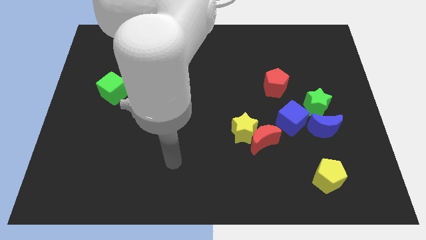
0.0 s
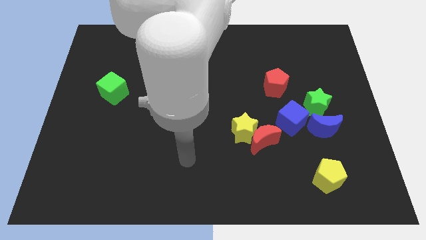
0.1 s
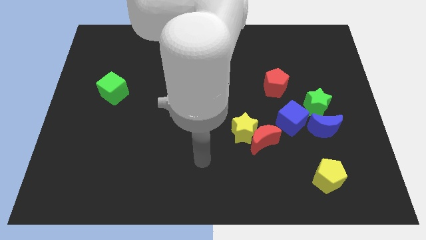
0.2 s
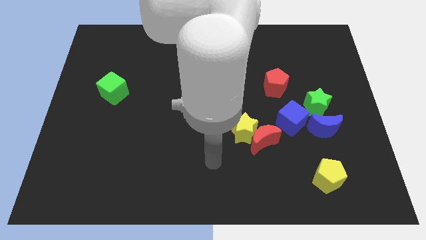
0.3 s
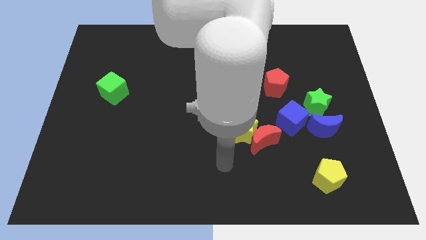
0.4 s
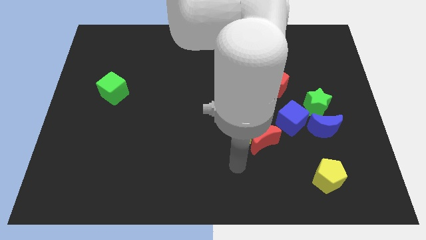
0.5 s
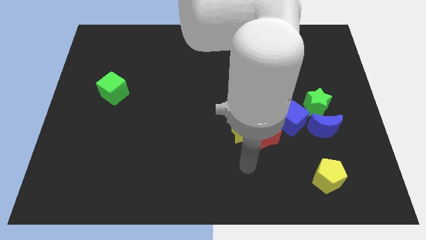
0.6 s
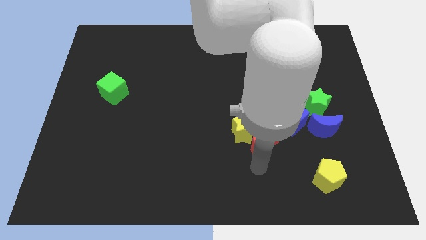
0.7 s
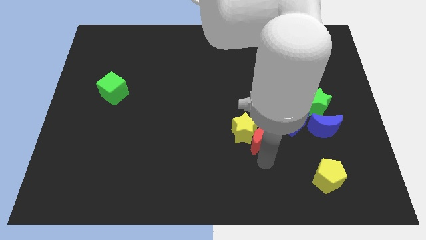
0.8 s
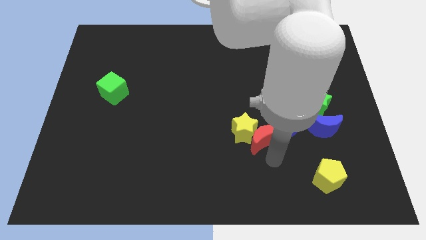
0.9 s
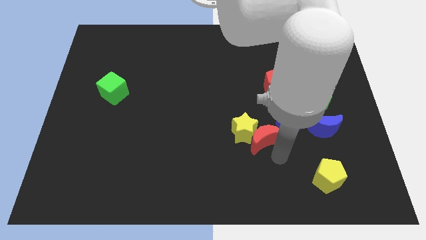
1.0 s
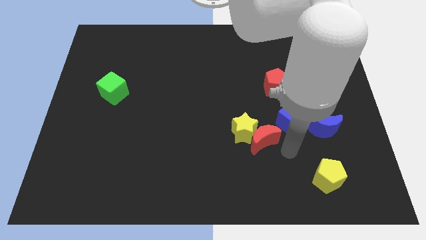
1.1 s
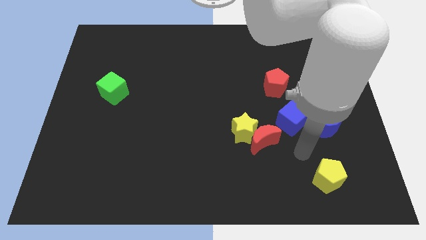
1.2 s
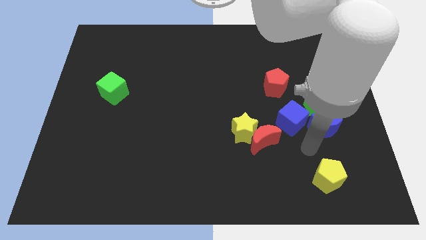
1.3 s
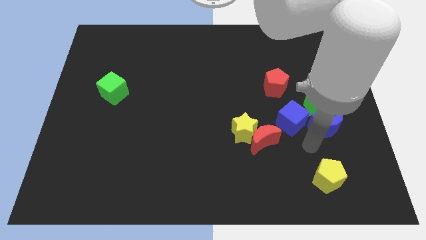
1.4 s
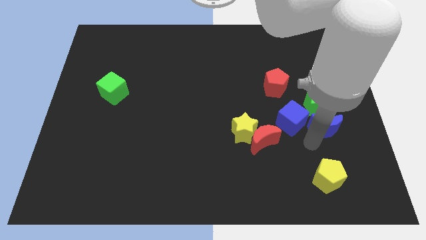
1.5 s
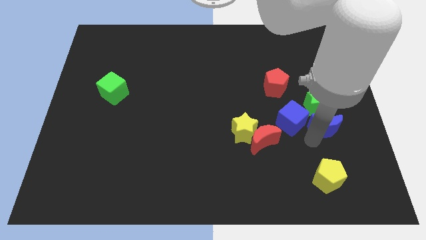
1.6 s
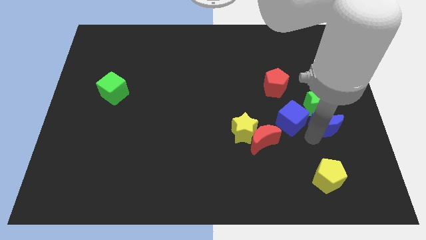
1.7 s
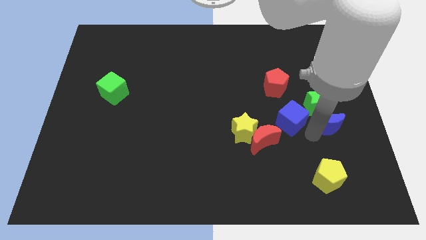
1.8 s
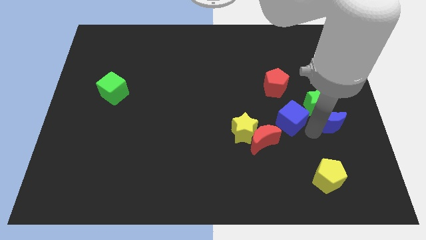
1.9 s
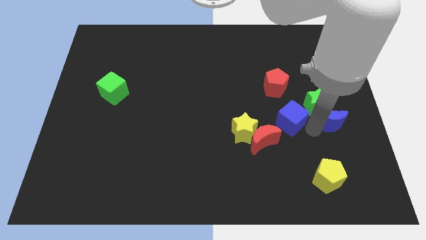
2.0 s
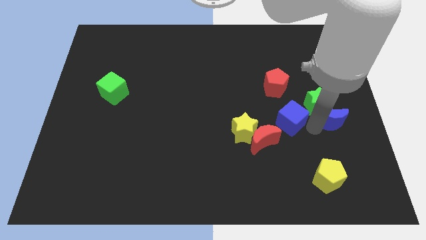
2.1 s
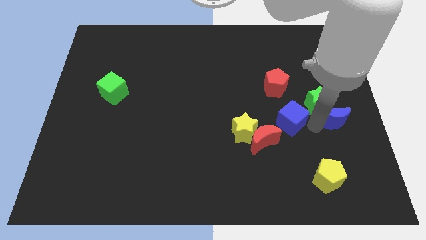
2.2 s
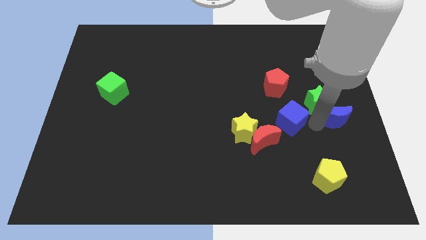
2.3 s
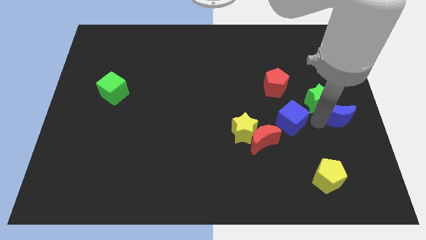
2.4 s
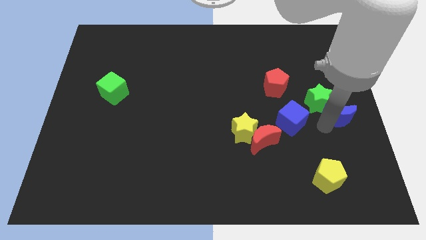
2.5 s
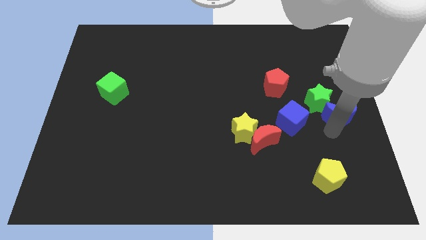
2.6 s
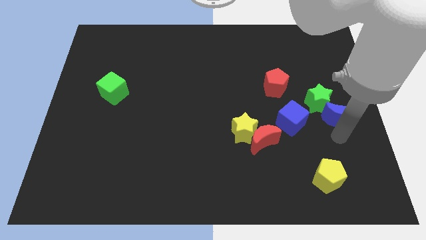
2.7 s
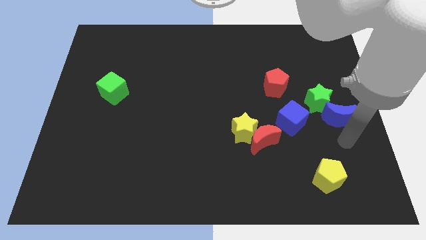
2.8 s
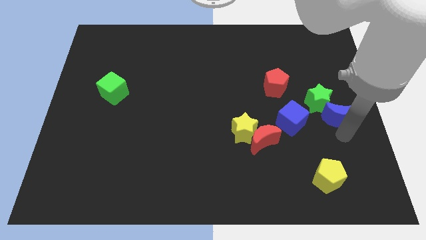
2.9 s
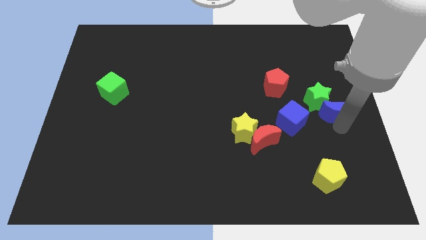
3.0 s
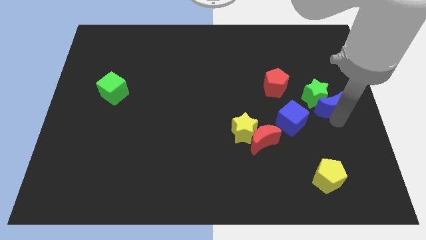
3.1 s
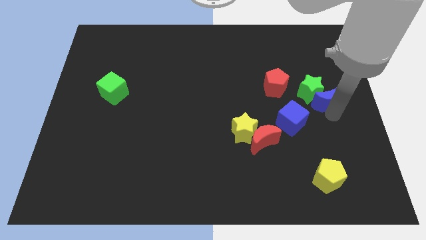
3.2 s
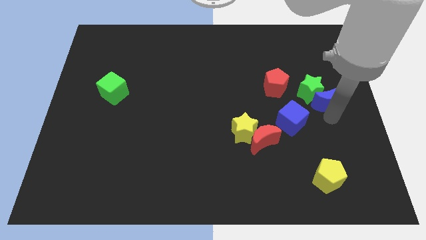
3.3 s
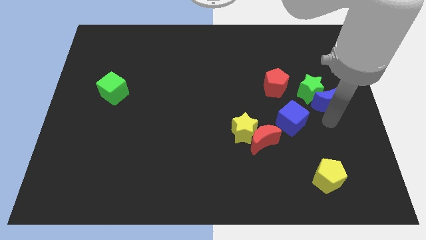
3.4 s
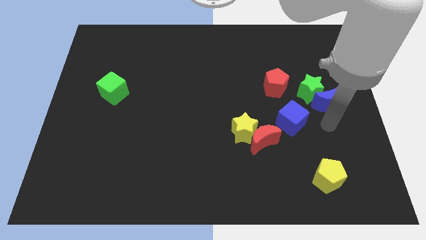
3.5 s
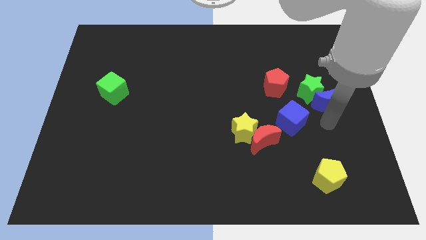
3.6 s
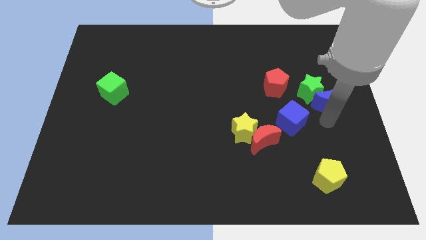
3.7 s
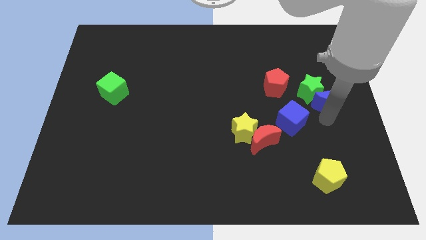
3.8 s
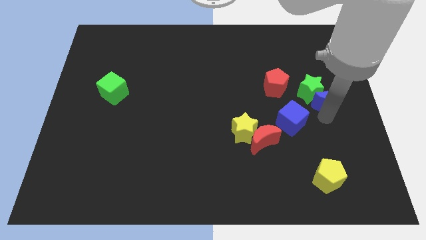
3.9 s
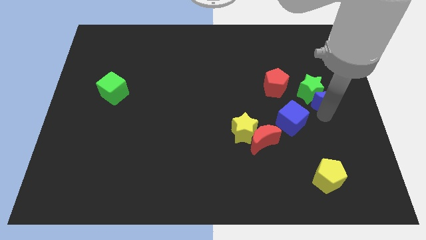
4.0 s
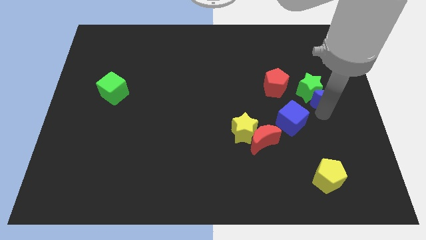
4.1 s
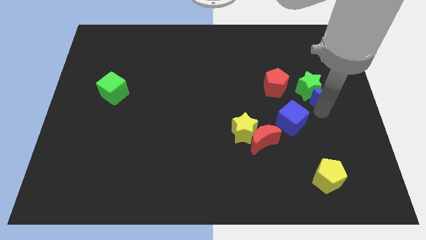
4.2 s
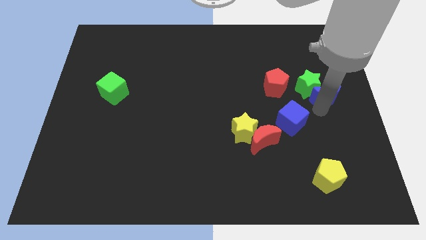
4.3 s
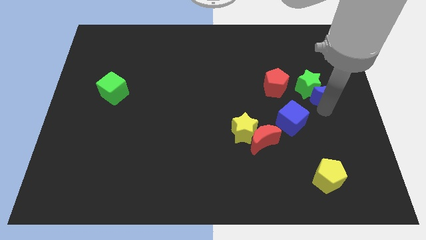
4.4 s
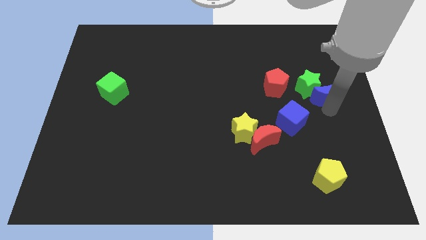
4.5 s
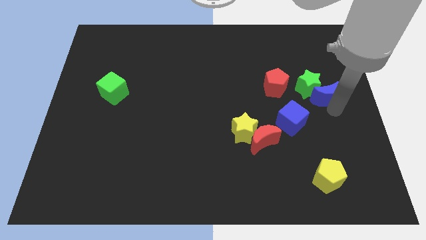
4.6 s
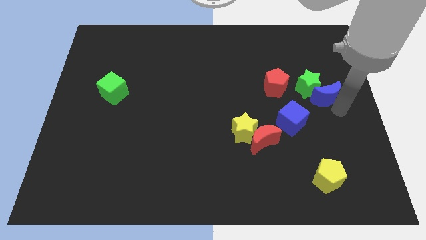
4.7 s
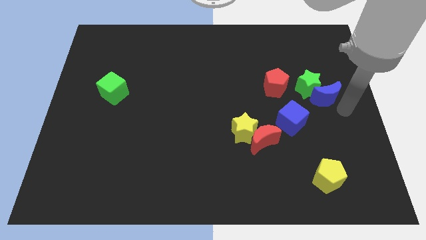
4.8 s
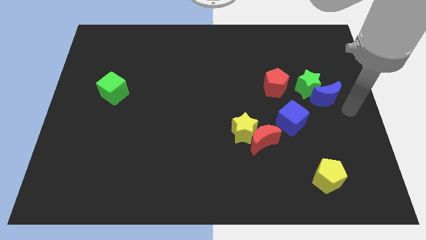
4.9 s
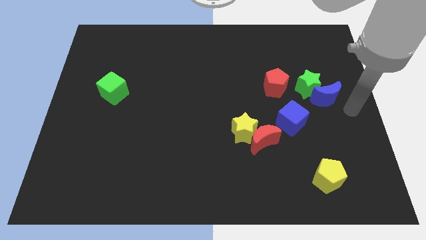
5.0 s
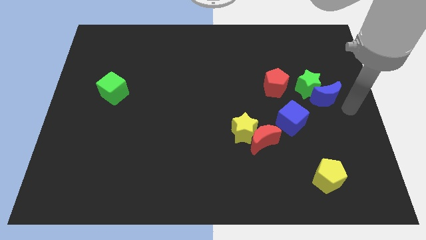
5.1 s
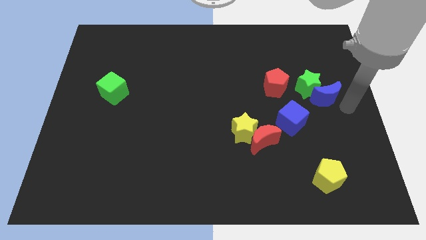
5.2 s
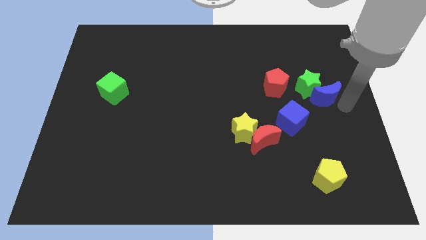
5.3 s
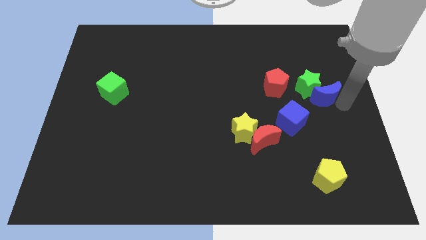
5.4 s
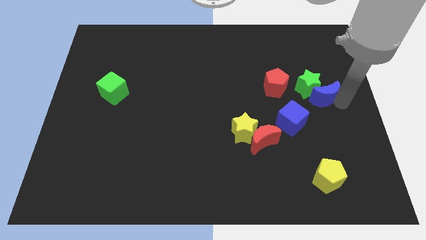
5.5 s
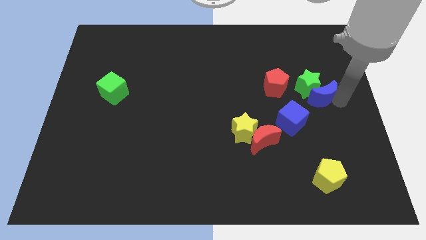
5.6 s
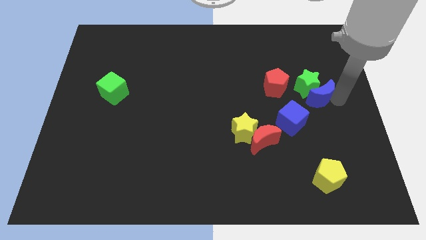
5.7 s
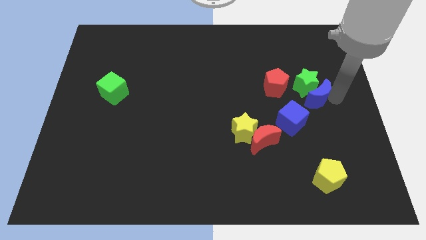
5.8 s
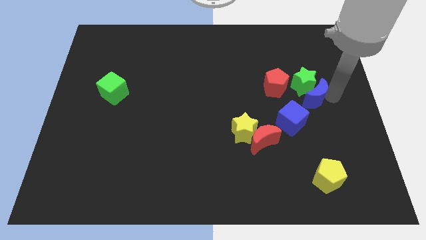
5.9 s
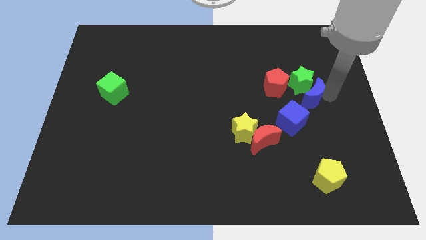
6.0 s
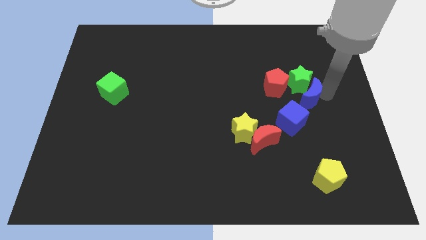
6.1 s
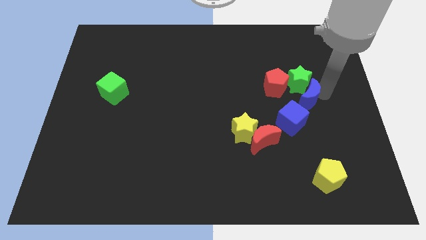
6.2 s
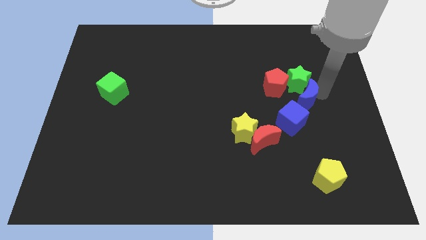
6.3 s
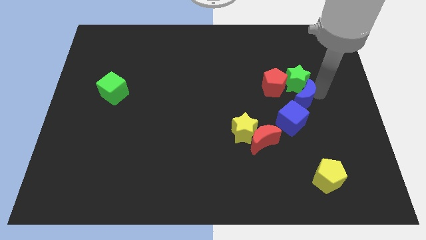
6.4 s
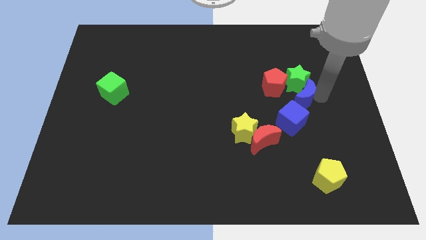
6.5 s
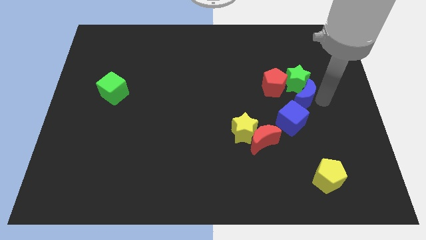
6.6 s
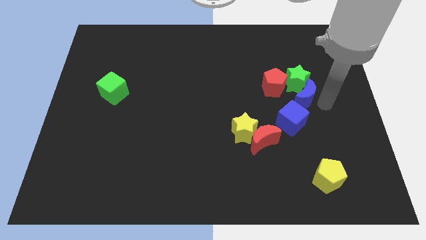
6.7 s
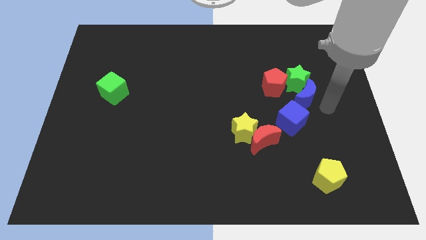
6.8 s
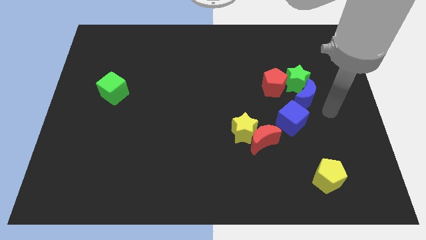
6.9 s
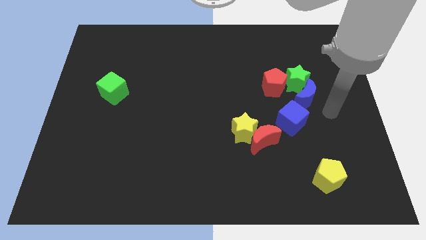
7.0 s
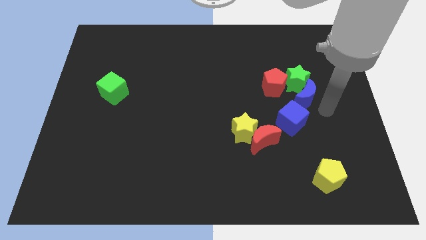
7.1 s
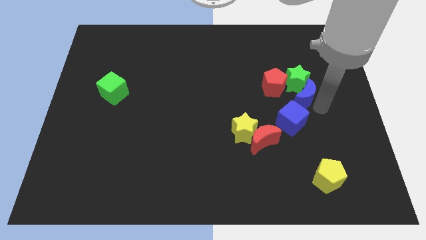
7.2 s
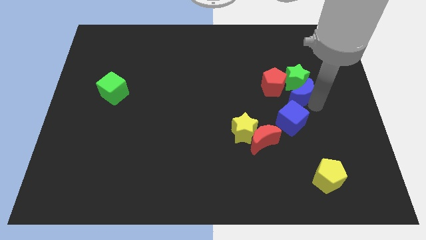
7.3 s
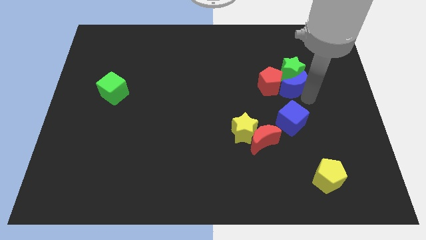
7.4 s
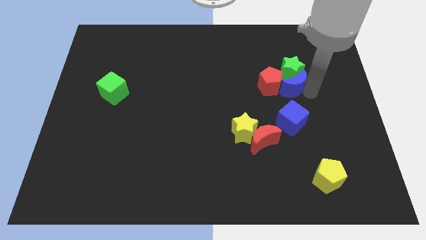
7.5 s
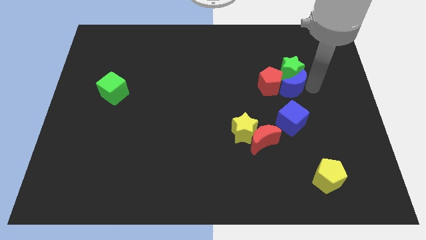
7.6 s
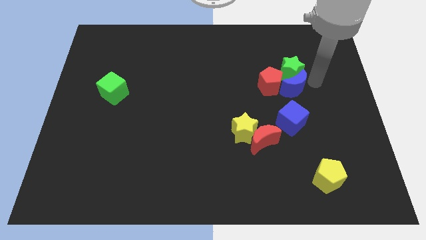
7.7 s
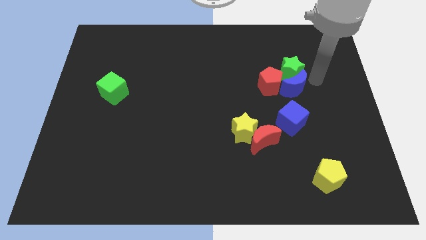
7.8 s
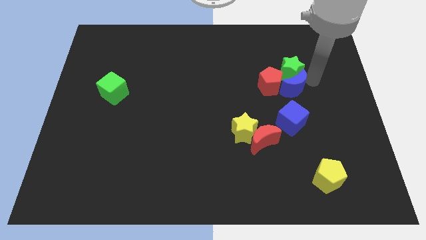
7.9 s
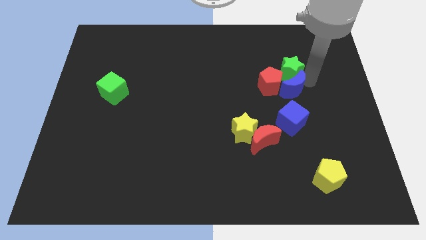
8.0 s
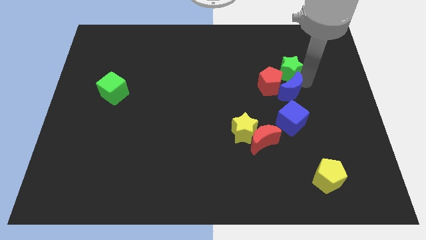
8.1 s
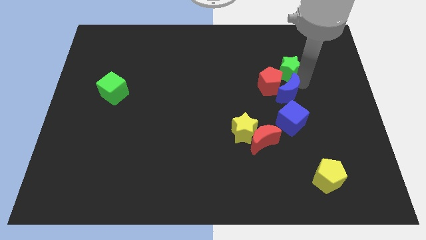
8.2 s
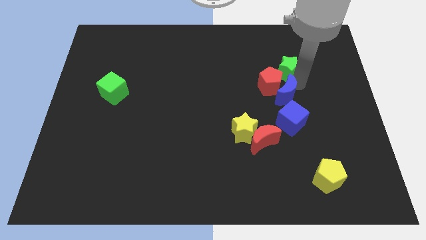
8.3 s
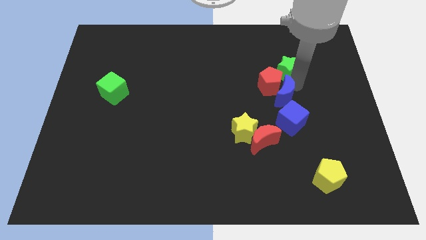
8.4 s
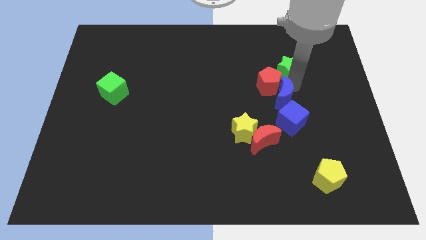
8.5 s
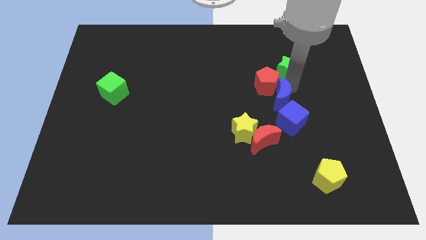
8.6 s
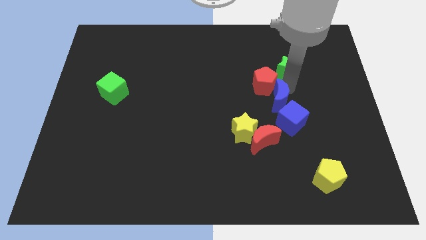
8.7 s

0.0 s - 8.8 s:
put the blue moon to the top side of the red moon
